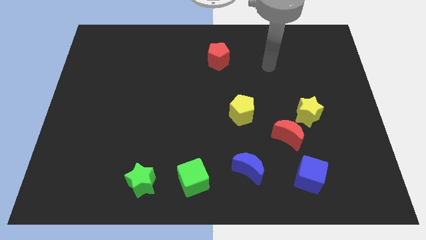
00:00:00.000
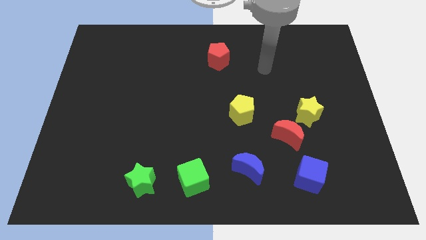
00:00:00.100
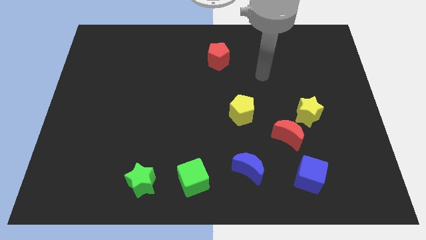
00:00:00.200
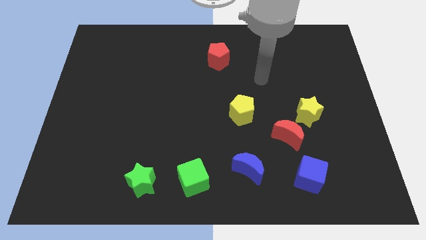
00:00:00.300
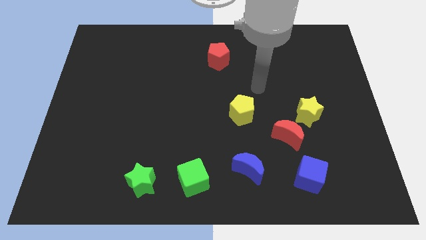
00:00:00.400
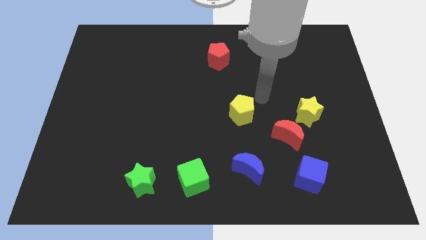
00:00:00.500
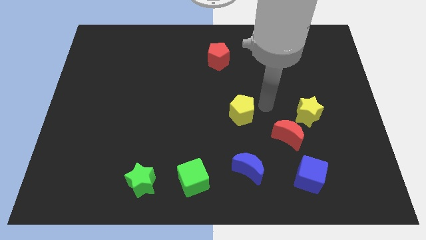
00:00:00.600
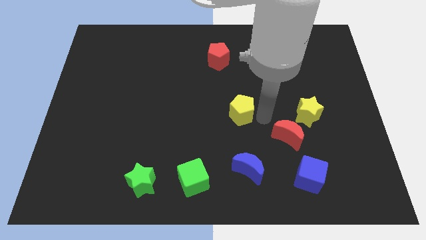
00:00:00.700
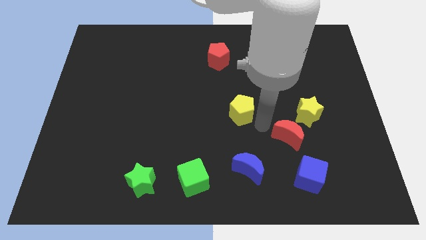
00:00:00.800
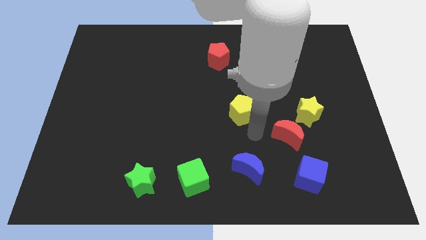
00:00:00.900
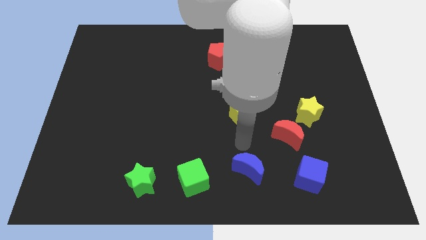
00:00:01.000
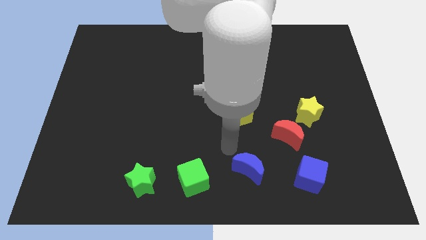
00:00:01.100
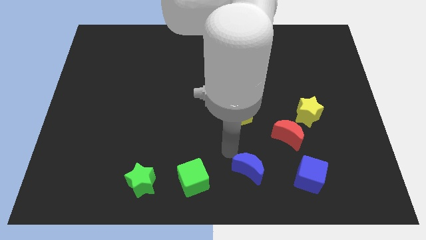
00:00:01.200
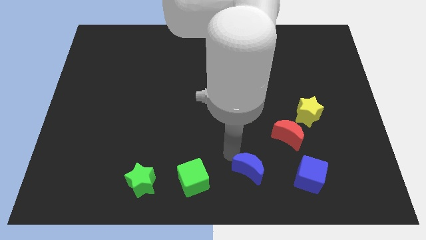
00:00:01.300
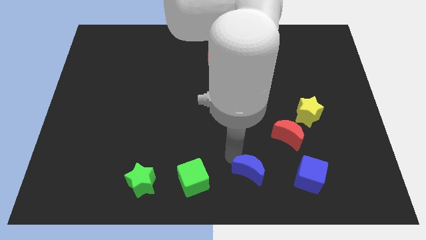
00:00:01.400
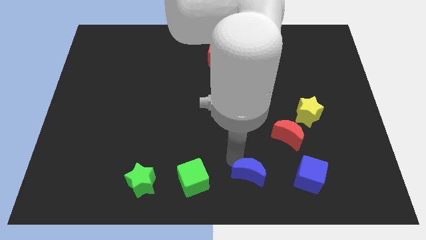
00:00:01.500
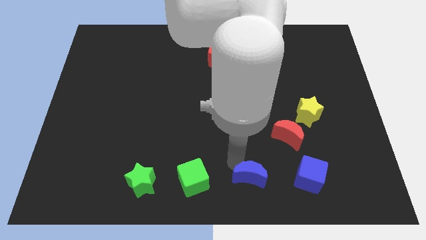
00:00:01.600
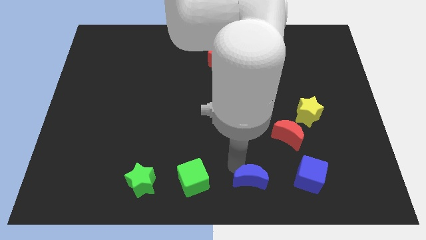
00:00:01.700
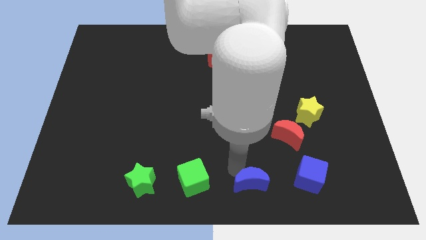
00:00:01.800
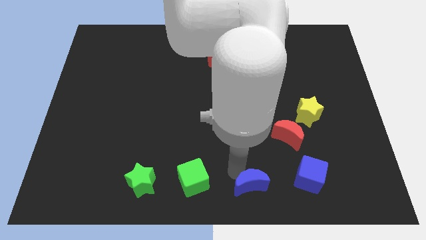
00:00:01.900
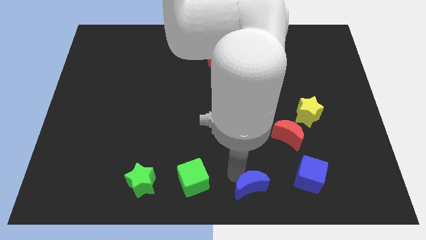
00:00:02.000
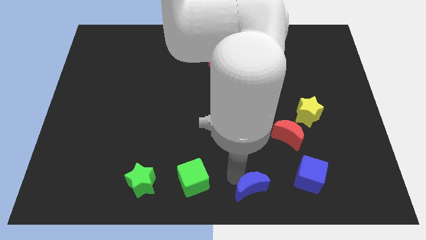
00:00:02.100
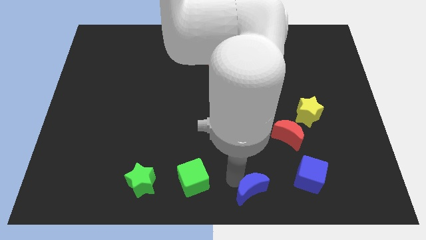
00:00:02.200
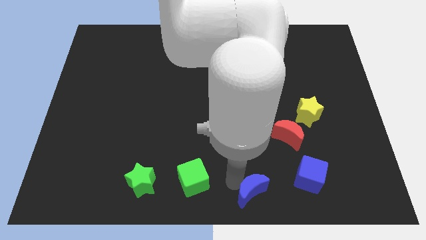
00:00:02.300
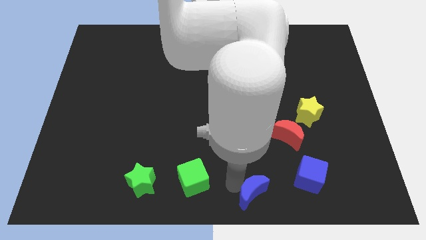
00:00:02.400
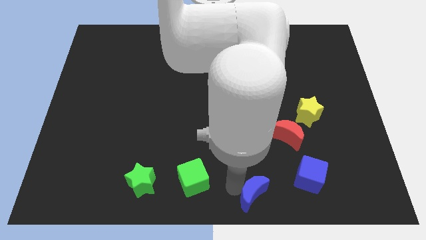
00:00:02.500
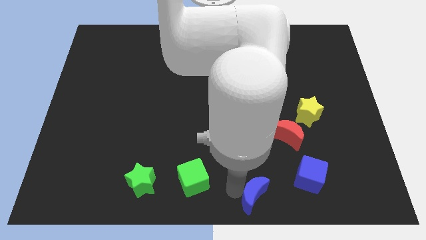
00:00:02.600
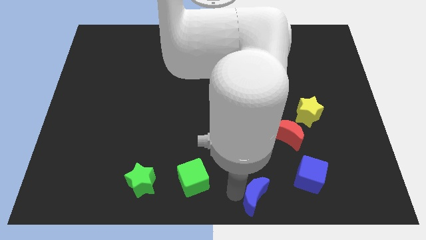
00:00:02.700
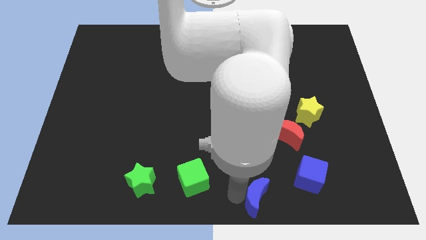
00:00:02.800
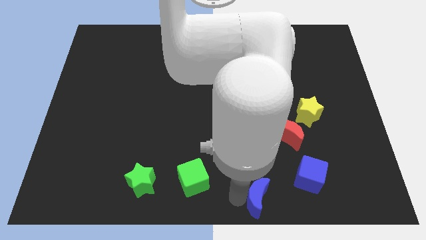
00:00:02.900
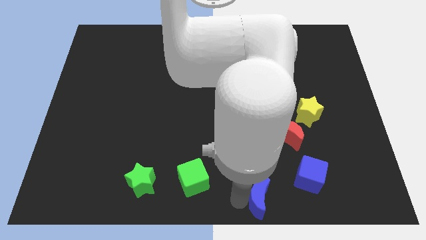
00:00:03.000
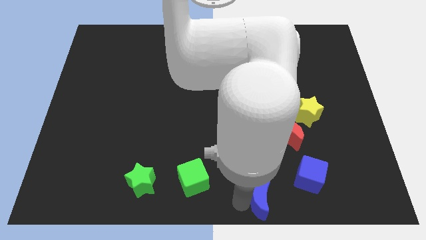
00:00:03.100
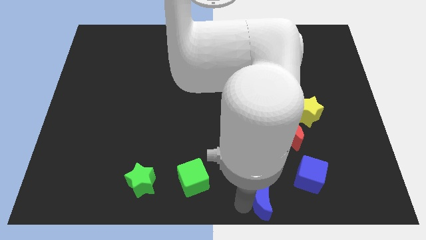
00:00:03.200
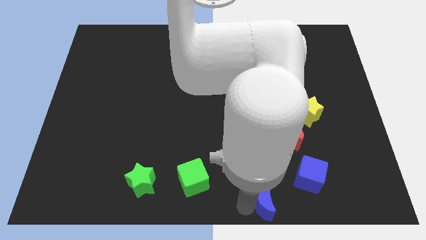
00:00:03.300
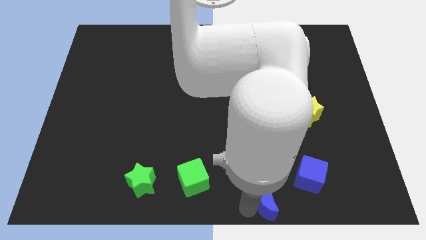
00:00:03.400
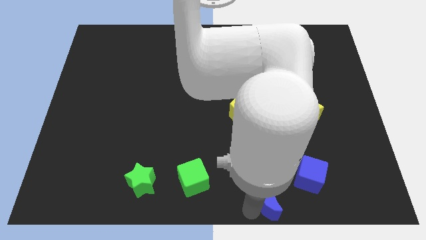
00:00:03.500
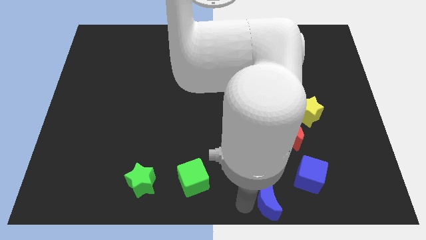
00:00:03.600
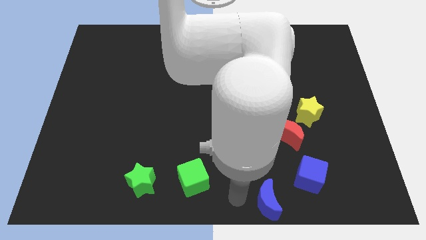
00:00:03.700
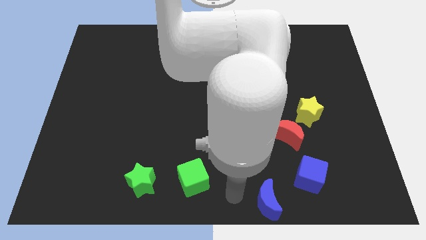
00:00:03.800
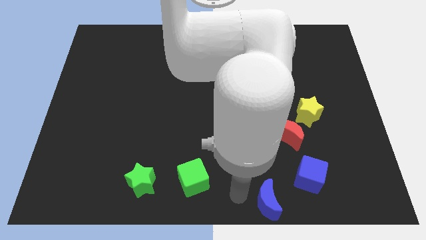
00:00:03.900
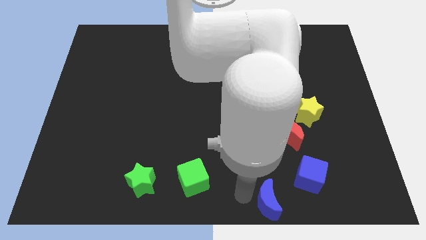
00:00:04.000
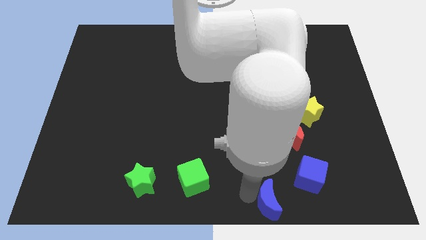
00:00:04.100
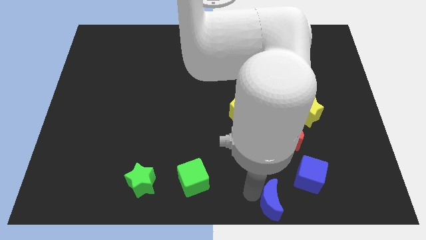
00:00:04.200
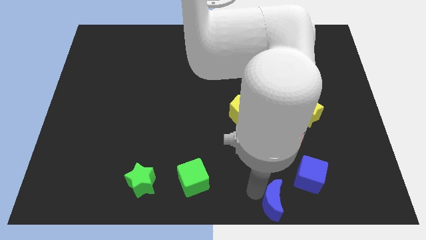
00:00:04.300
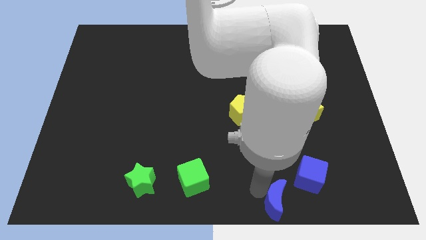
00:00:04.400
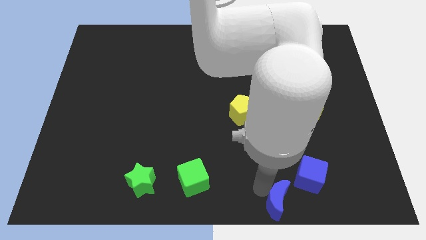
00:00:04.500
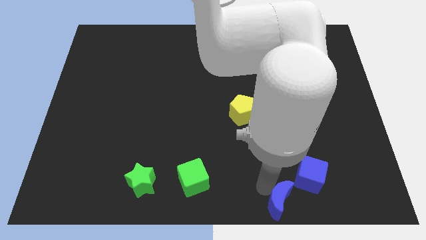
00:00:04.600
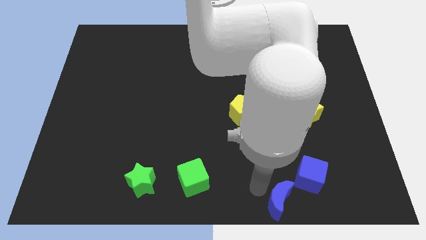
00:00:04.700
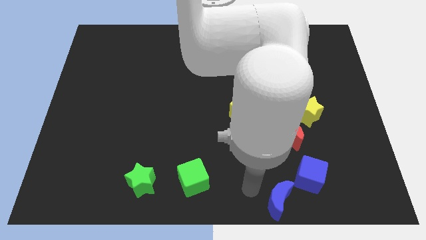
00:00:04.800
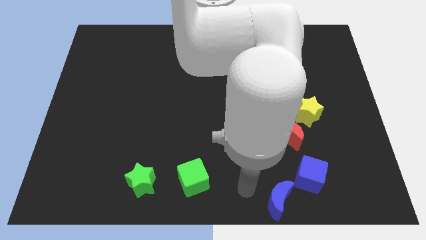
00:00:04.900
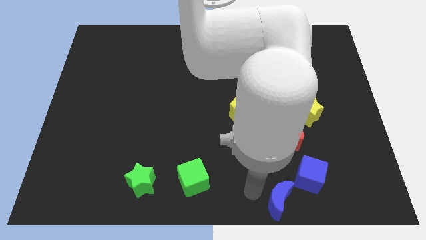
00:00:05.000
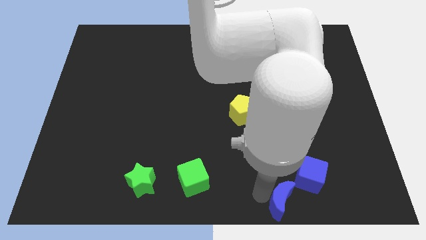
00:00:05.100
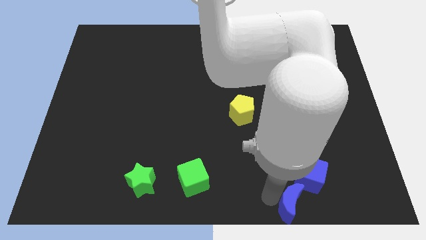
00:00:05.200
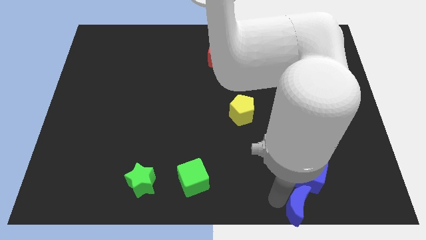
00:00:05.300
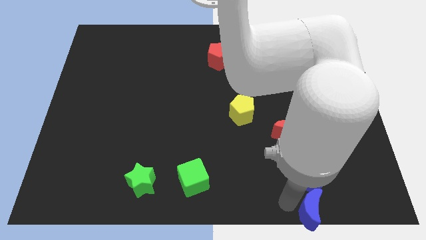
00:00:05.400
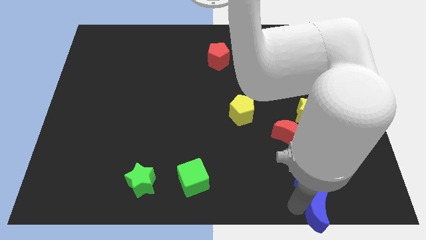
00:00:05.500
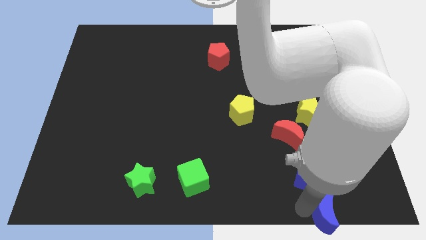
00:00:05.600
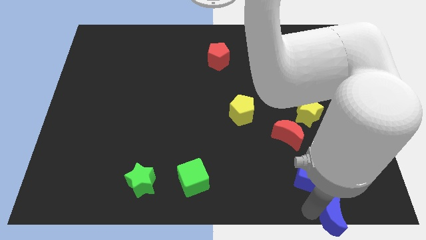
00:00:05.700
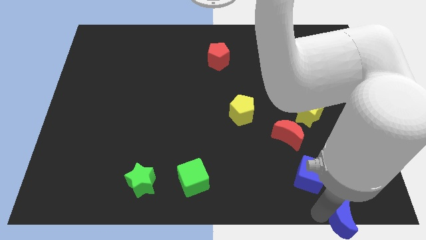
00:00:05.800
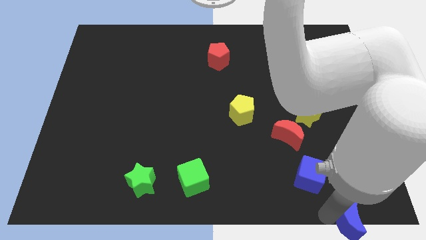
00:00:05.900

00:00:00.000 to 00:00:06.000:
put the blue moon to the bottom right corner
